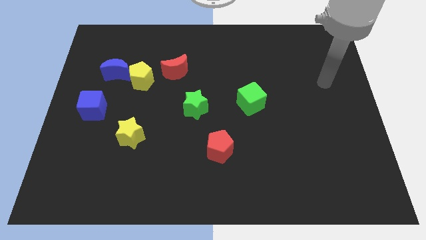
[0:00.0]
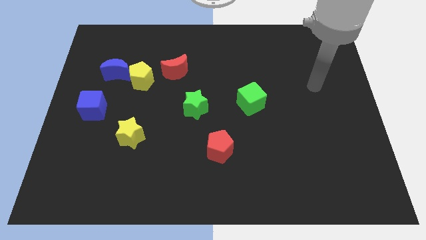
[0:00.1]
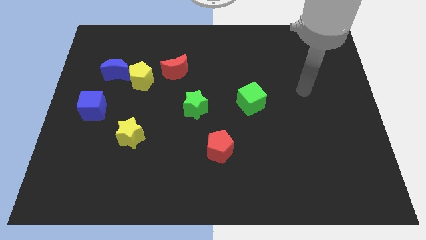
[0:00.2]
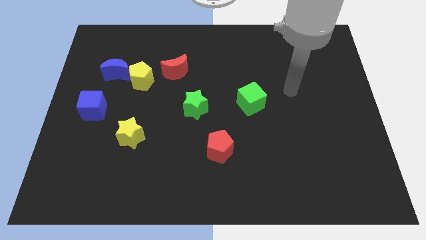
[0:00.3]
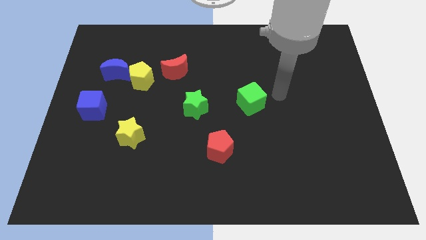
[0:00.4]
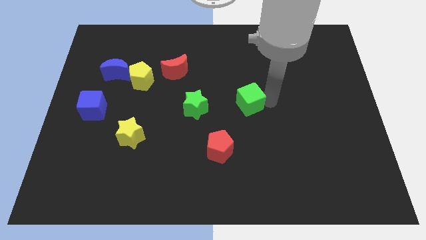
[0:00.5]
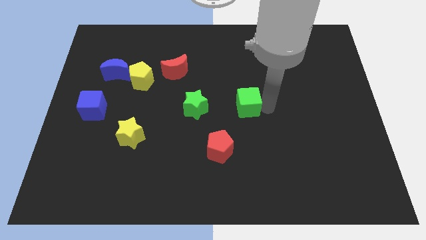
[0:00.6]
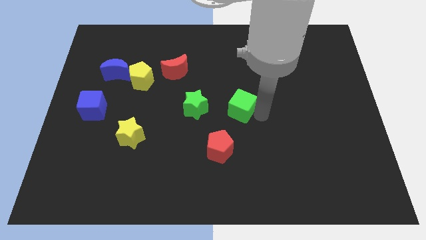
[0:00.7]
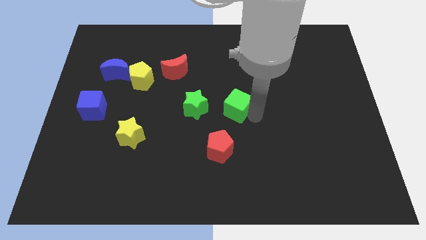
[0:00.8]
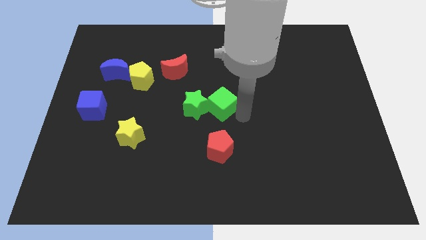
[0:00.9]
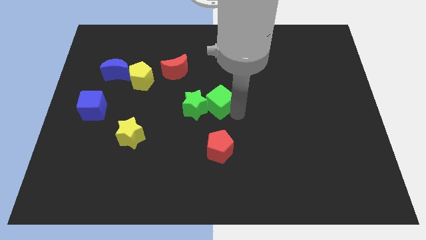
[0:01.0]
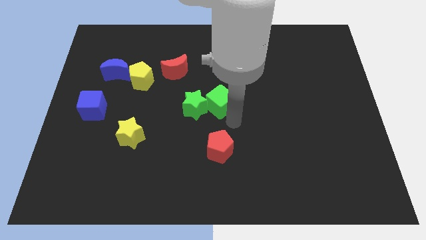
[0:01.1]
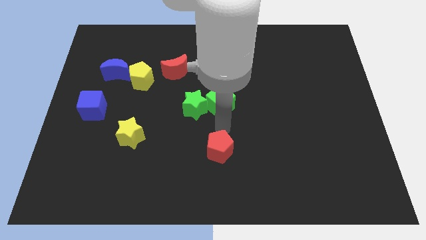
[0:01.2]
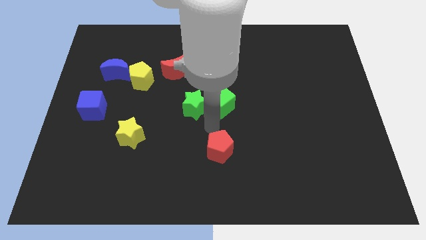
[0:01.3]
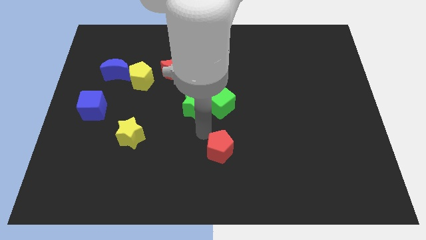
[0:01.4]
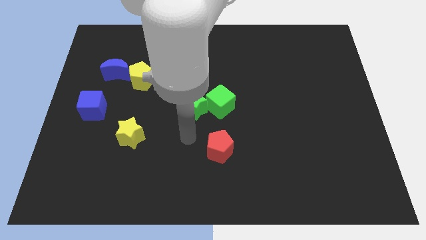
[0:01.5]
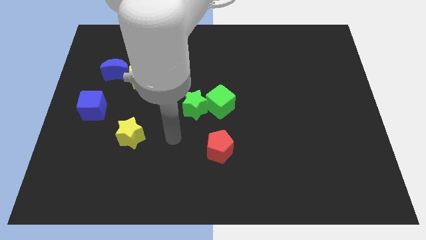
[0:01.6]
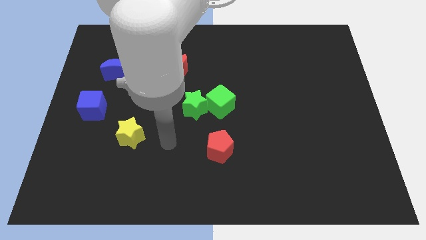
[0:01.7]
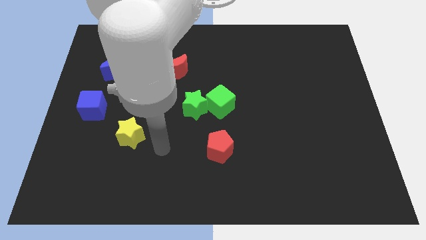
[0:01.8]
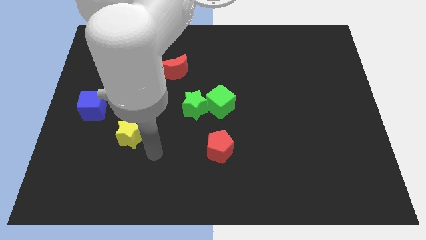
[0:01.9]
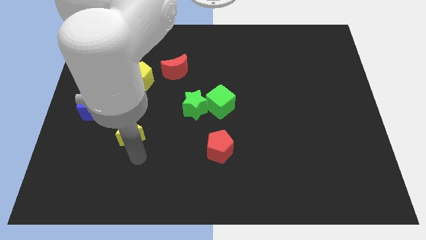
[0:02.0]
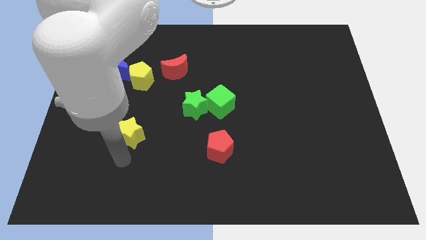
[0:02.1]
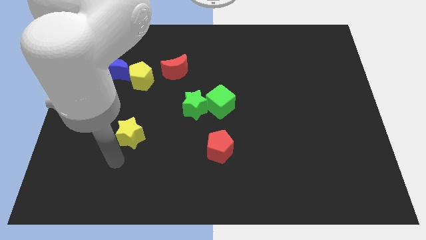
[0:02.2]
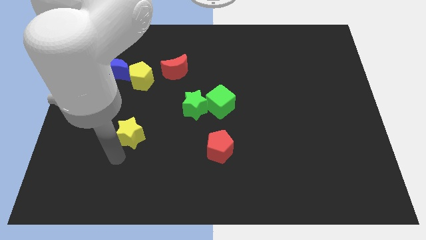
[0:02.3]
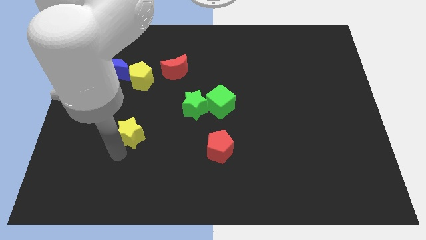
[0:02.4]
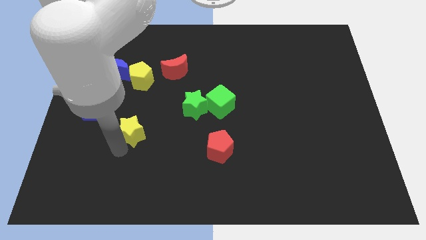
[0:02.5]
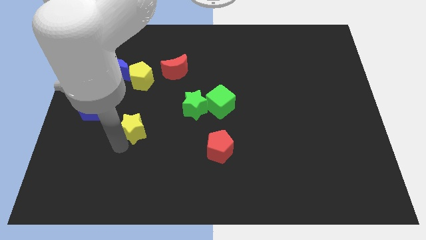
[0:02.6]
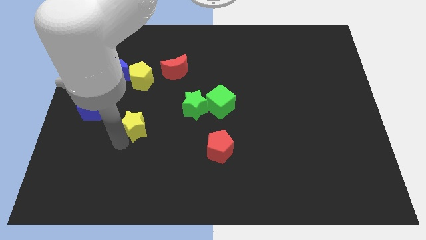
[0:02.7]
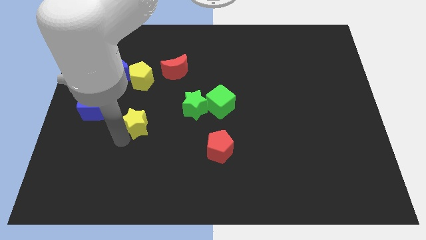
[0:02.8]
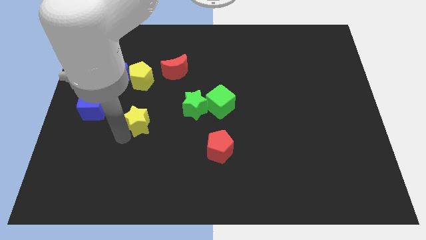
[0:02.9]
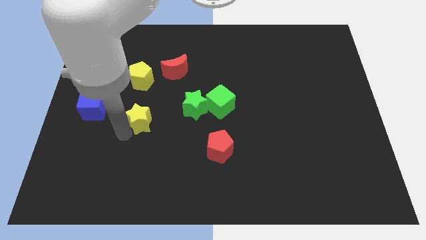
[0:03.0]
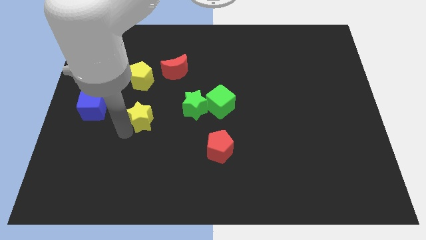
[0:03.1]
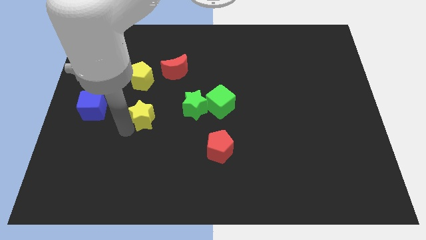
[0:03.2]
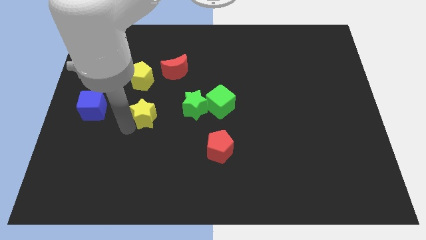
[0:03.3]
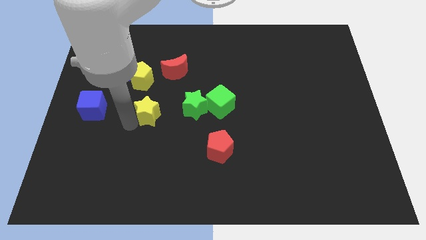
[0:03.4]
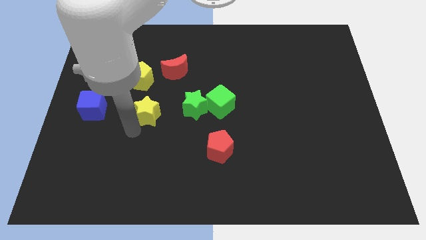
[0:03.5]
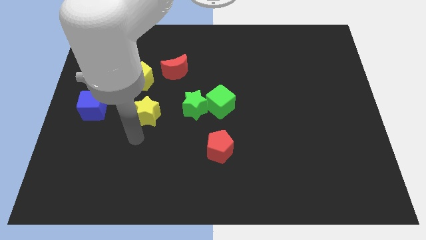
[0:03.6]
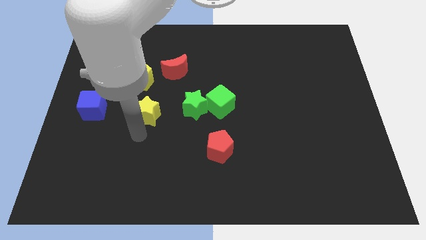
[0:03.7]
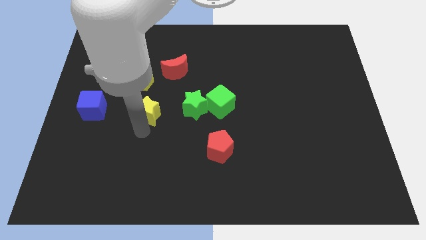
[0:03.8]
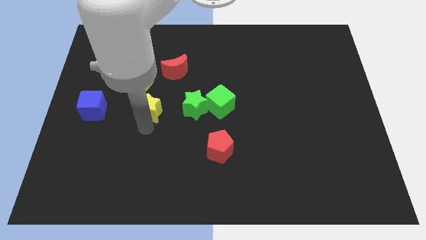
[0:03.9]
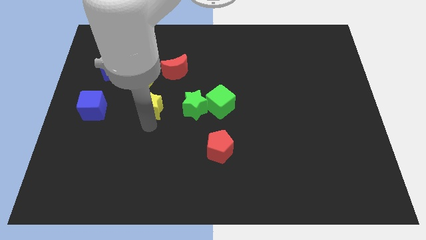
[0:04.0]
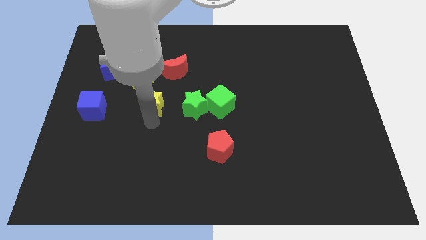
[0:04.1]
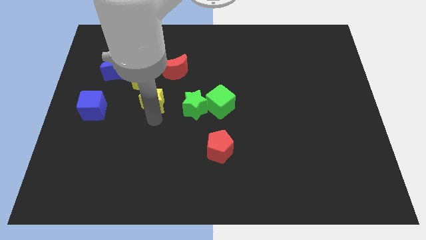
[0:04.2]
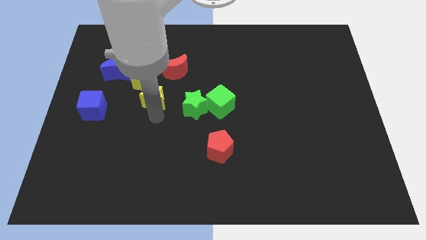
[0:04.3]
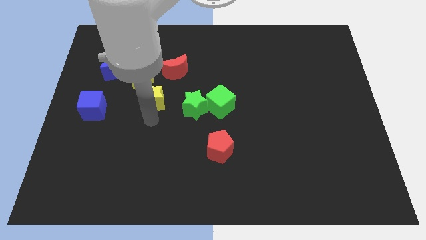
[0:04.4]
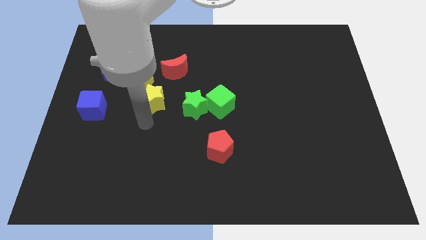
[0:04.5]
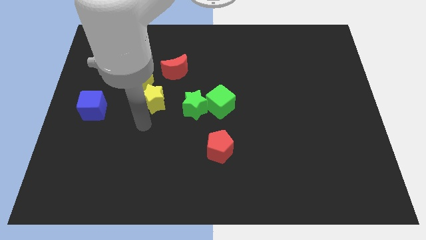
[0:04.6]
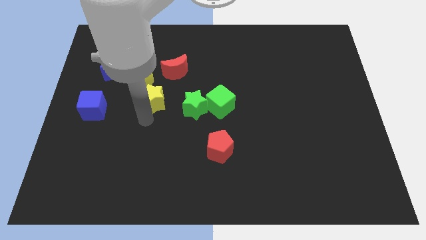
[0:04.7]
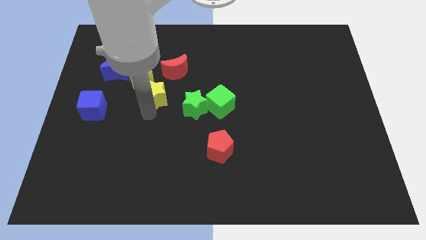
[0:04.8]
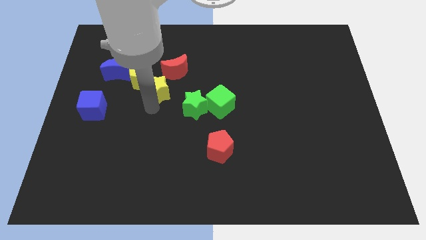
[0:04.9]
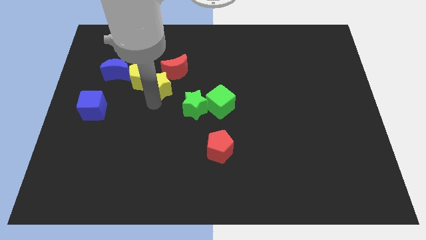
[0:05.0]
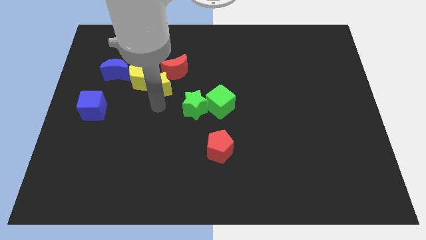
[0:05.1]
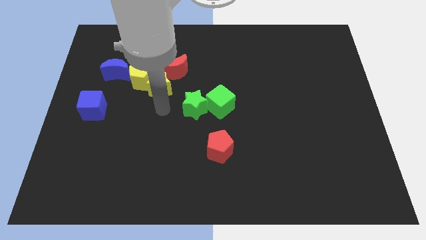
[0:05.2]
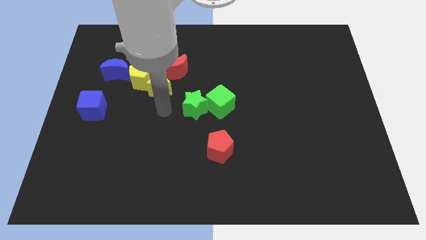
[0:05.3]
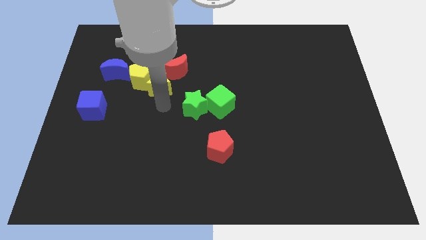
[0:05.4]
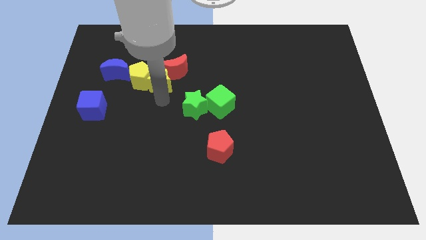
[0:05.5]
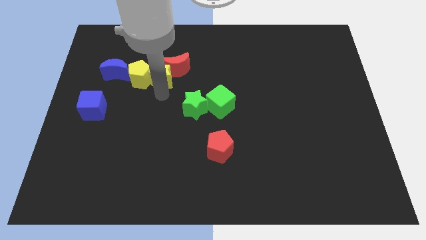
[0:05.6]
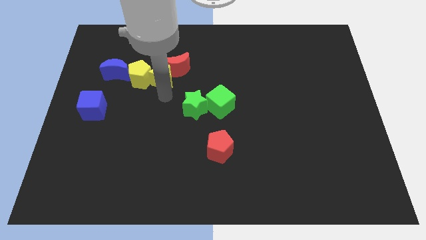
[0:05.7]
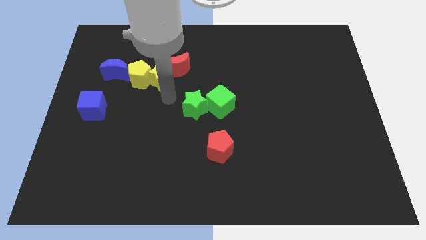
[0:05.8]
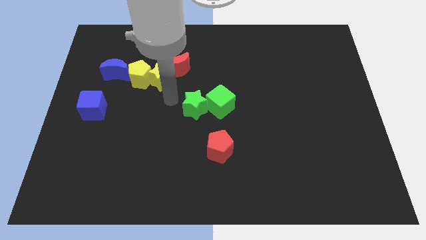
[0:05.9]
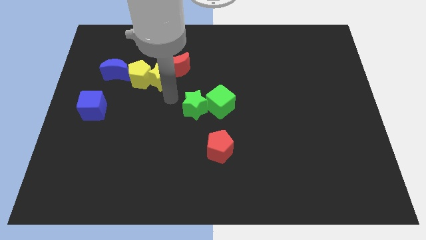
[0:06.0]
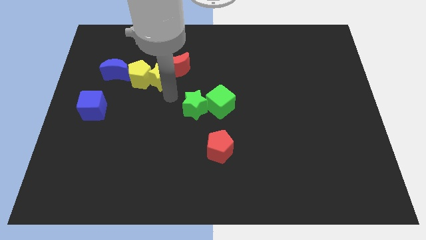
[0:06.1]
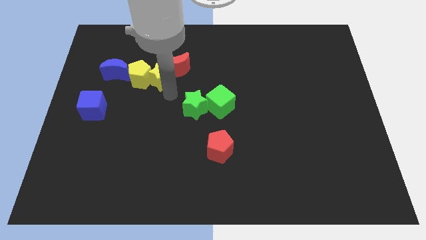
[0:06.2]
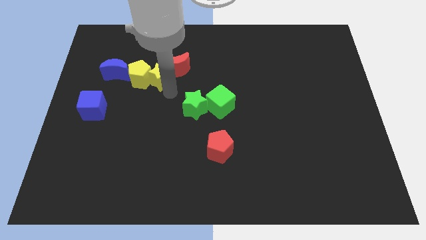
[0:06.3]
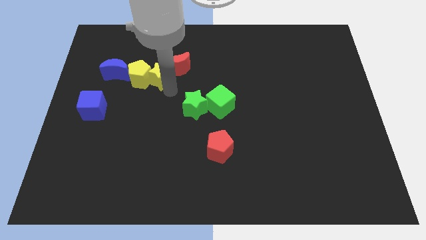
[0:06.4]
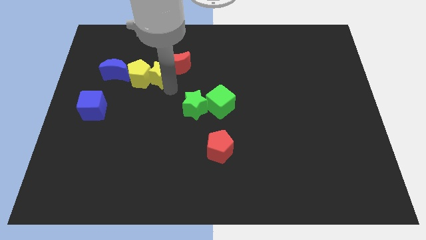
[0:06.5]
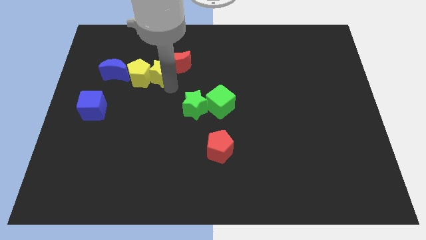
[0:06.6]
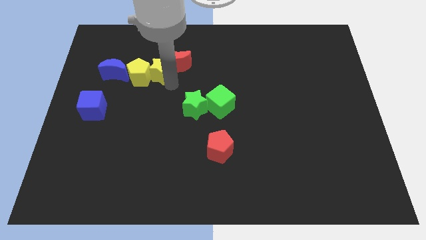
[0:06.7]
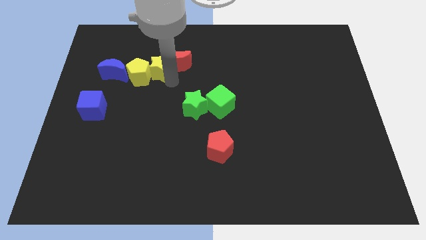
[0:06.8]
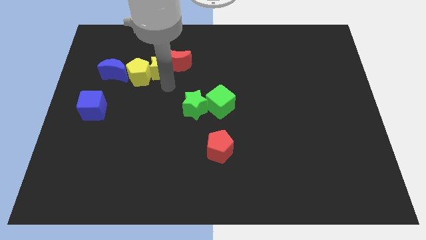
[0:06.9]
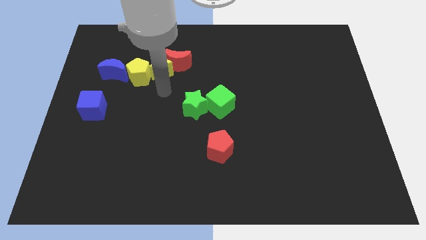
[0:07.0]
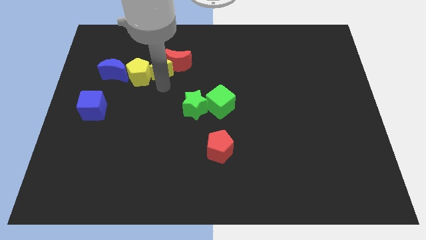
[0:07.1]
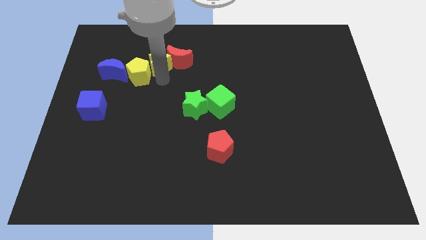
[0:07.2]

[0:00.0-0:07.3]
put the yellow star to the top left side of the red moon

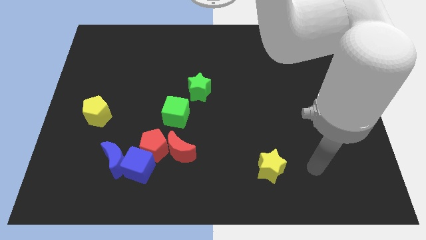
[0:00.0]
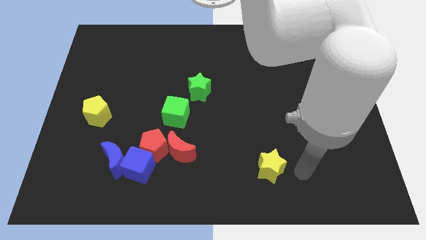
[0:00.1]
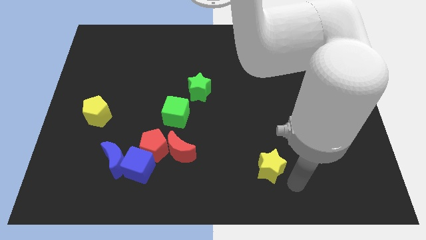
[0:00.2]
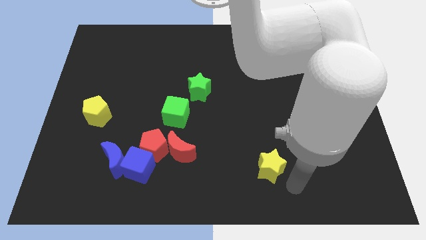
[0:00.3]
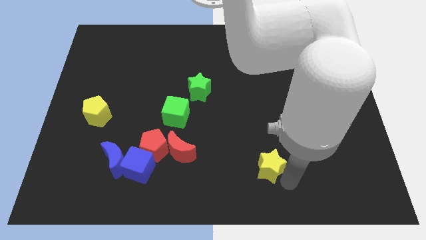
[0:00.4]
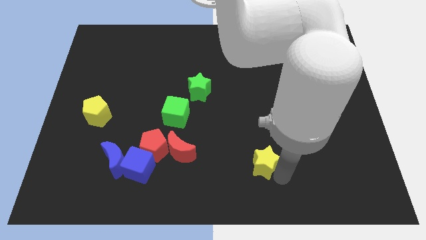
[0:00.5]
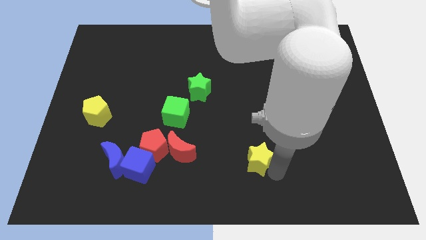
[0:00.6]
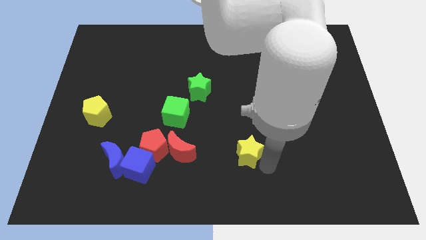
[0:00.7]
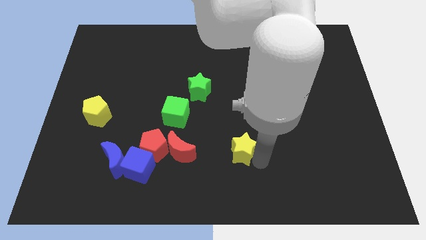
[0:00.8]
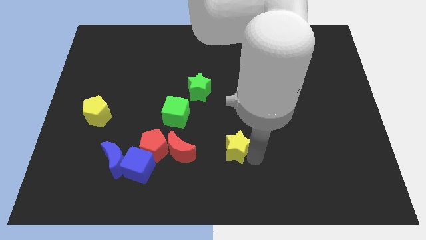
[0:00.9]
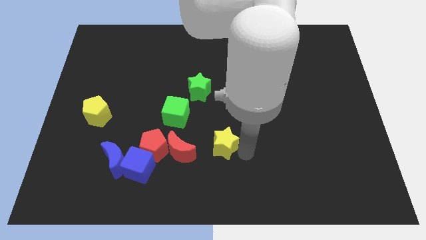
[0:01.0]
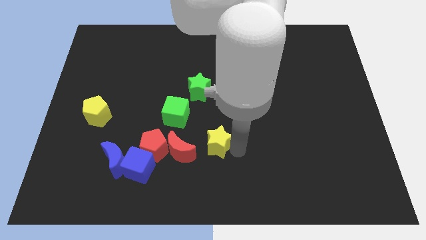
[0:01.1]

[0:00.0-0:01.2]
push the yellow star to the bottom right side of the green cube

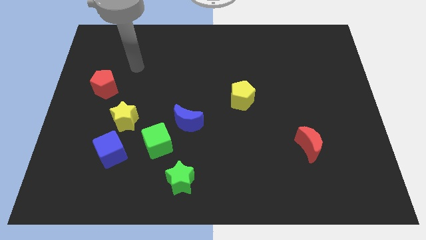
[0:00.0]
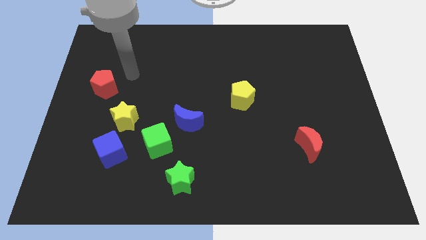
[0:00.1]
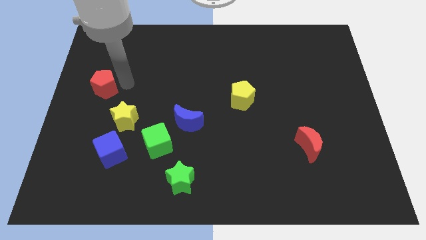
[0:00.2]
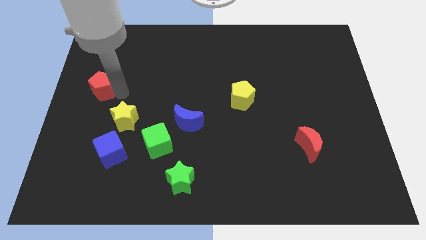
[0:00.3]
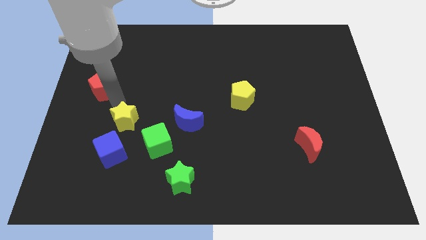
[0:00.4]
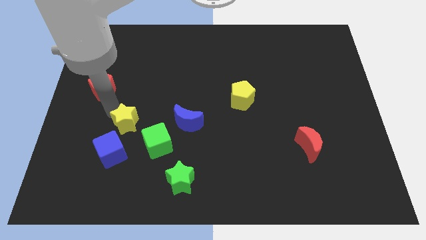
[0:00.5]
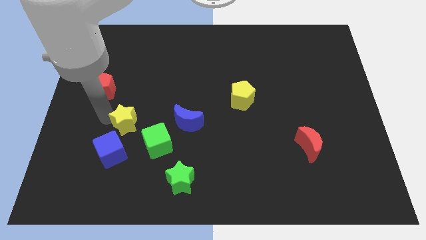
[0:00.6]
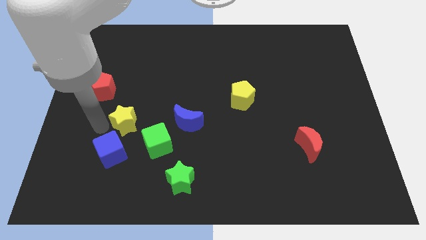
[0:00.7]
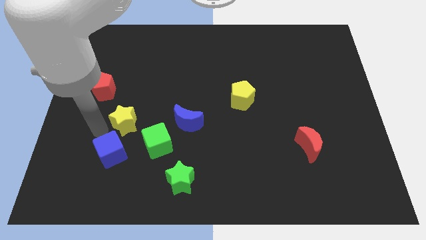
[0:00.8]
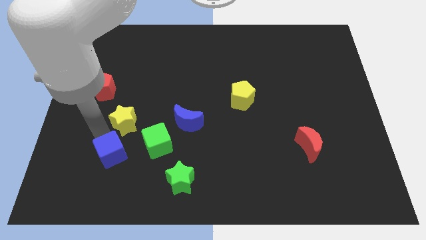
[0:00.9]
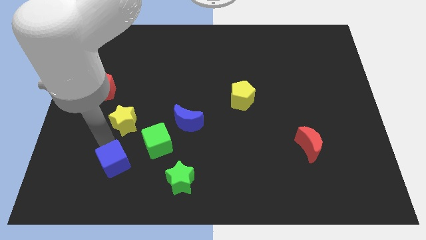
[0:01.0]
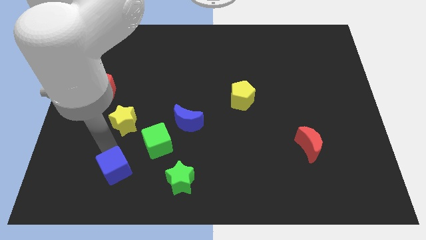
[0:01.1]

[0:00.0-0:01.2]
push the blue cube just left of the green star
